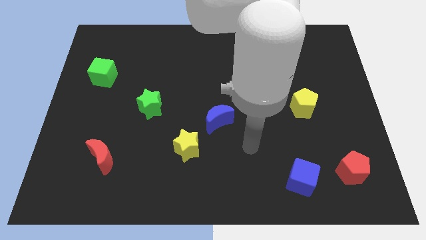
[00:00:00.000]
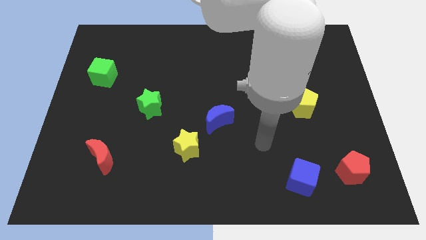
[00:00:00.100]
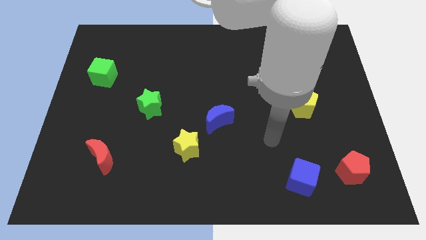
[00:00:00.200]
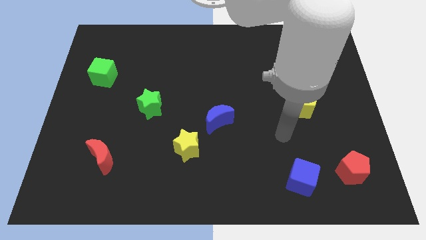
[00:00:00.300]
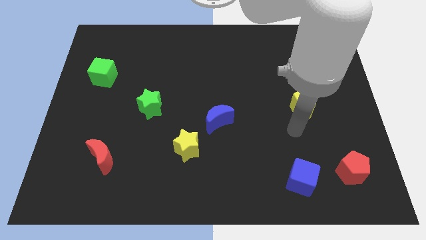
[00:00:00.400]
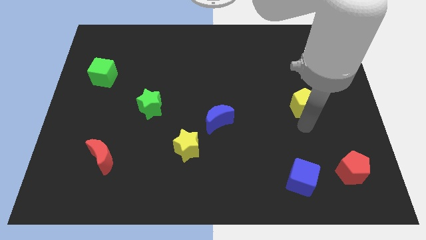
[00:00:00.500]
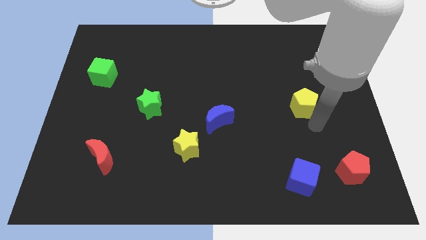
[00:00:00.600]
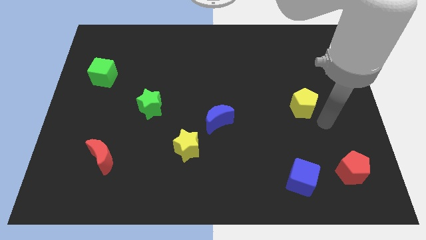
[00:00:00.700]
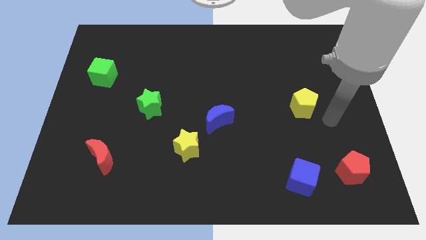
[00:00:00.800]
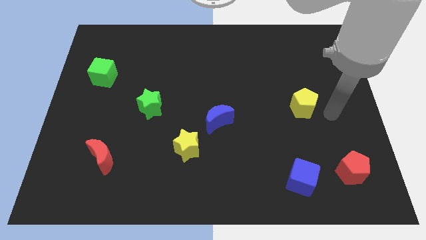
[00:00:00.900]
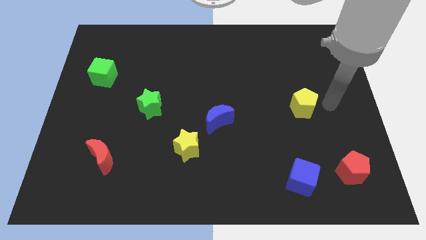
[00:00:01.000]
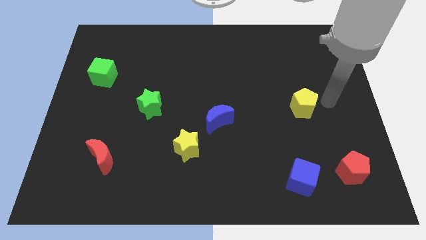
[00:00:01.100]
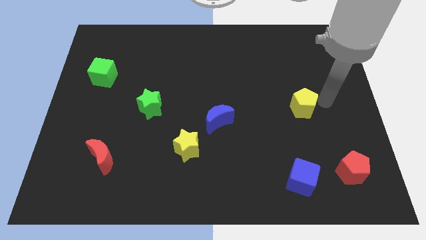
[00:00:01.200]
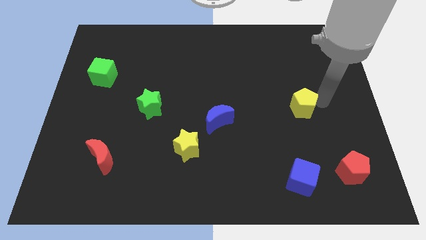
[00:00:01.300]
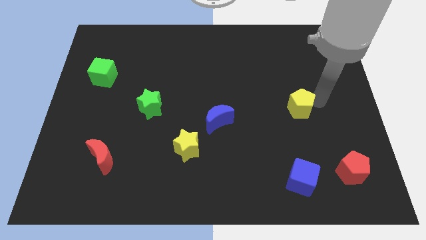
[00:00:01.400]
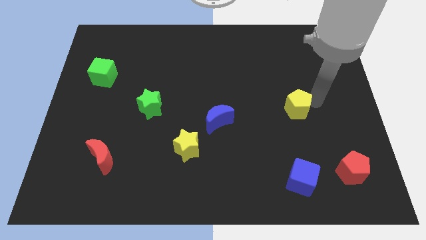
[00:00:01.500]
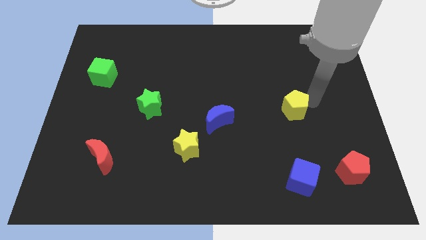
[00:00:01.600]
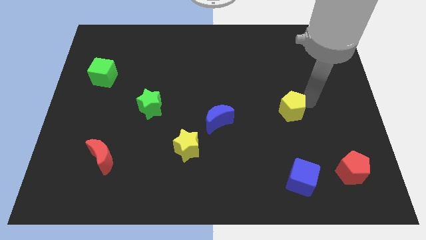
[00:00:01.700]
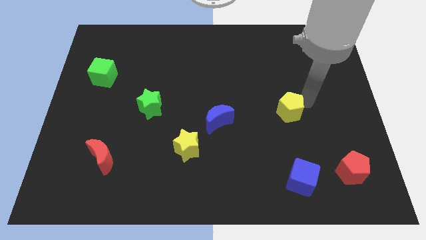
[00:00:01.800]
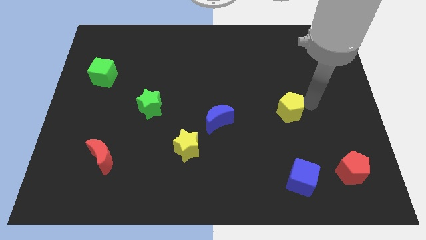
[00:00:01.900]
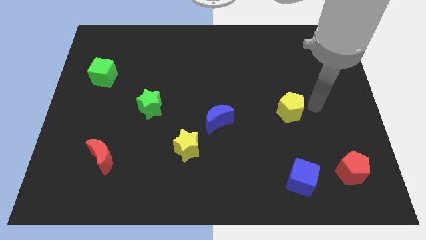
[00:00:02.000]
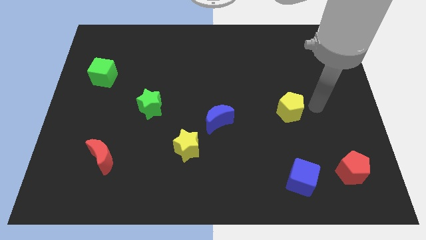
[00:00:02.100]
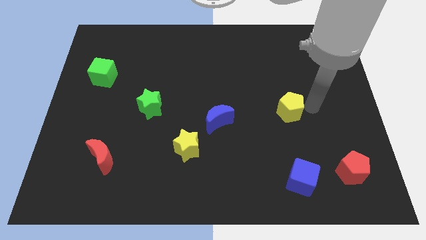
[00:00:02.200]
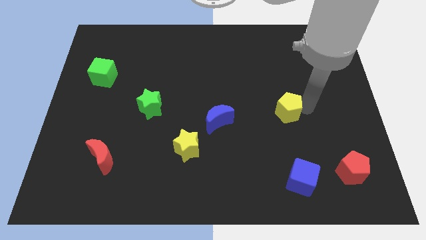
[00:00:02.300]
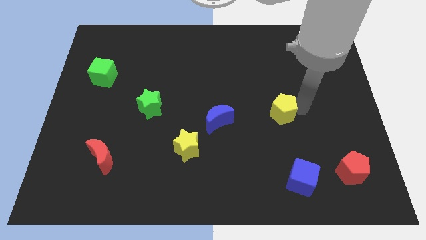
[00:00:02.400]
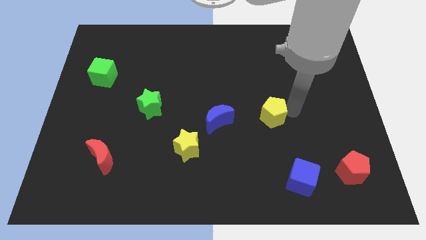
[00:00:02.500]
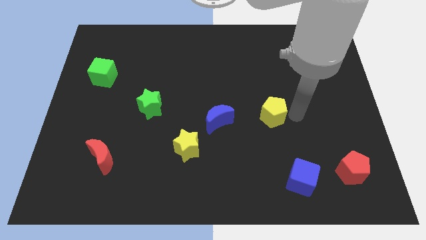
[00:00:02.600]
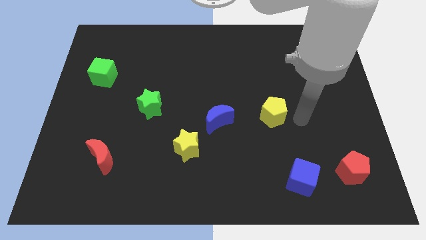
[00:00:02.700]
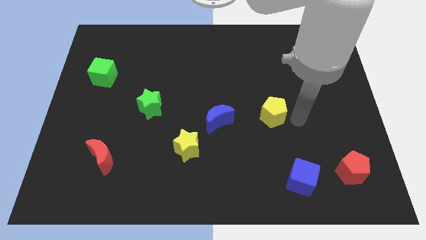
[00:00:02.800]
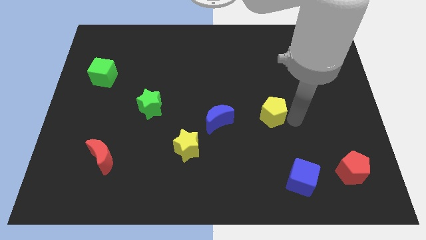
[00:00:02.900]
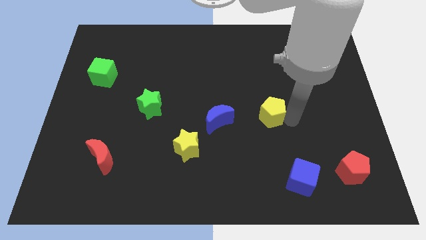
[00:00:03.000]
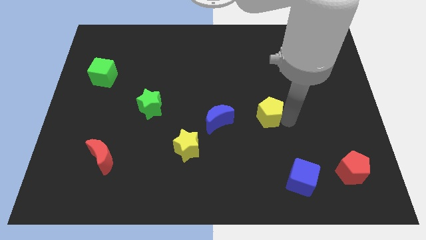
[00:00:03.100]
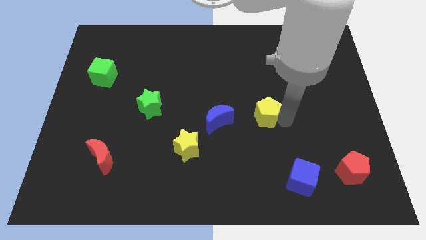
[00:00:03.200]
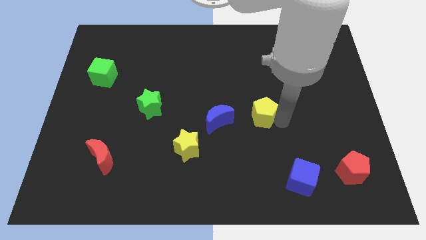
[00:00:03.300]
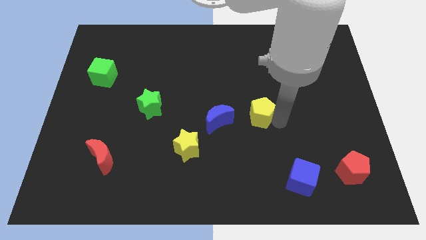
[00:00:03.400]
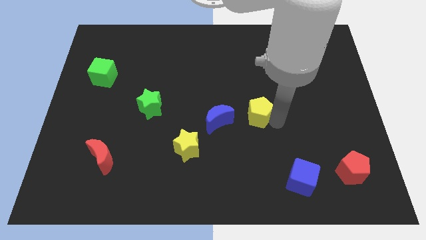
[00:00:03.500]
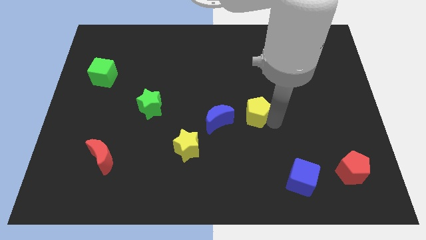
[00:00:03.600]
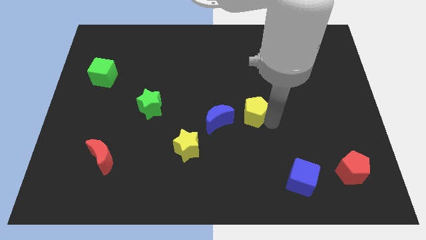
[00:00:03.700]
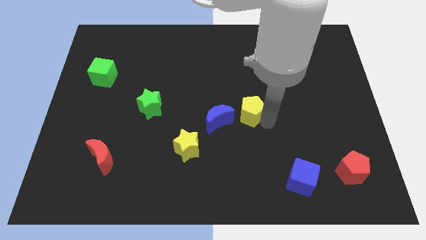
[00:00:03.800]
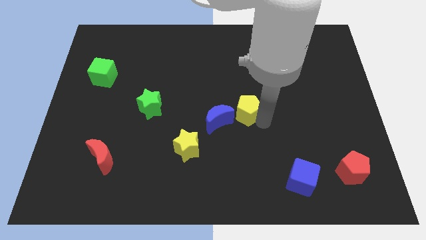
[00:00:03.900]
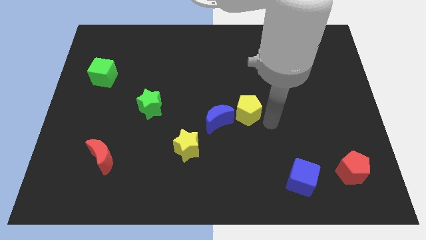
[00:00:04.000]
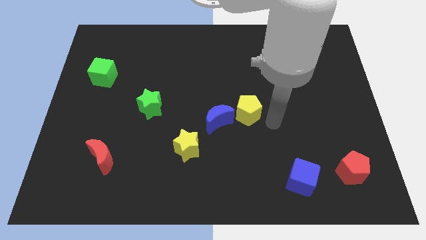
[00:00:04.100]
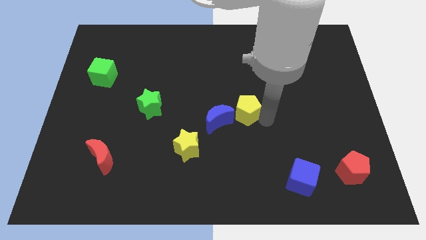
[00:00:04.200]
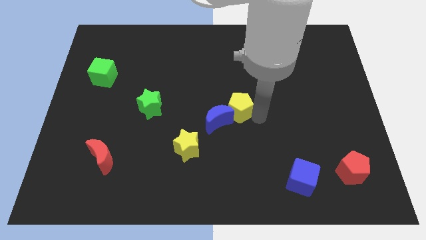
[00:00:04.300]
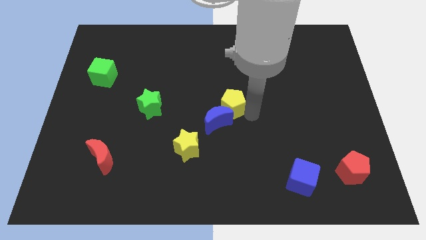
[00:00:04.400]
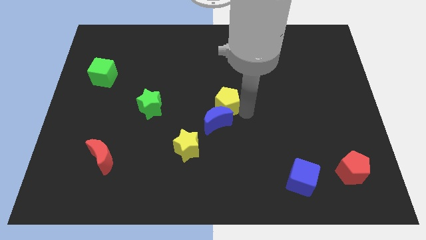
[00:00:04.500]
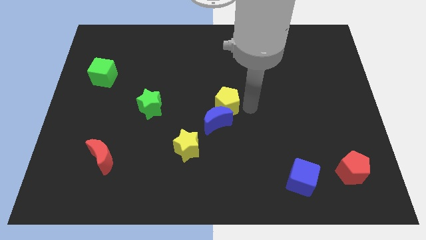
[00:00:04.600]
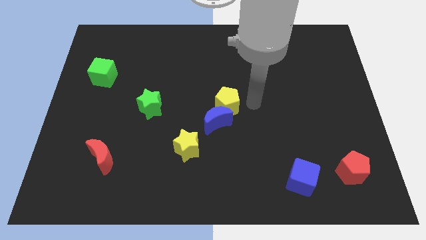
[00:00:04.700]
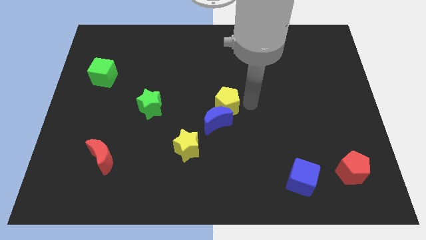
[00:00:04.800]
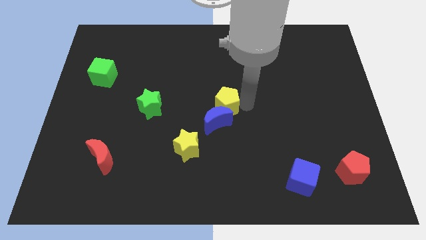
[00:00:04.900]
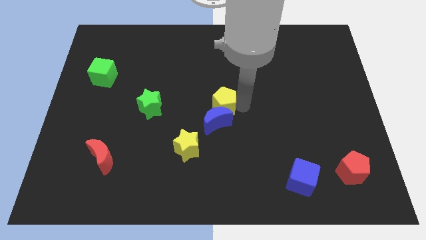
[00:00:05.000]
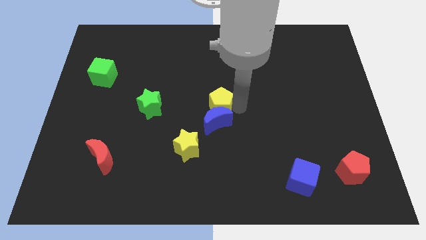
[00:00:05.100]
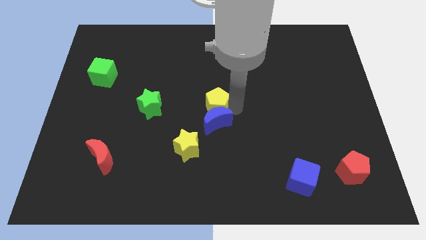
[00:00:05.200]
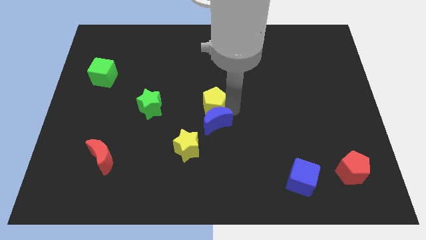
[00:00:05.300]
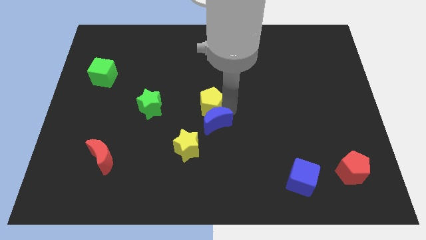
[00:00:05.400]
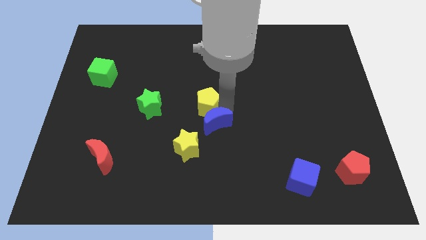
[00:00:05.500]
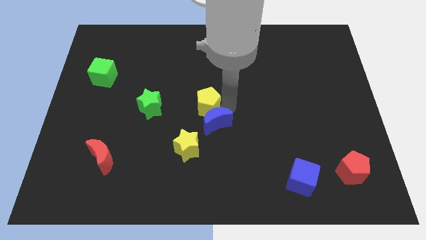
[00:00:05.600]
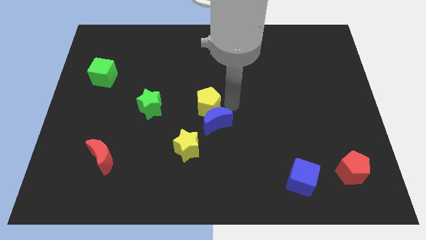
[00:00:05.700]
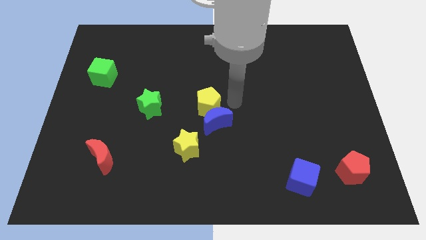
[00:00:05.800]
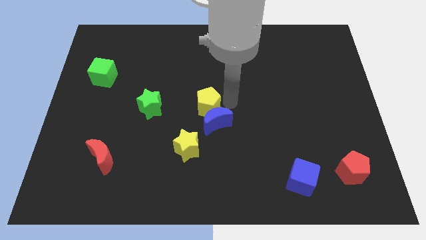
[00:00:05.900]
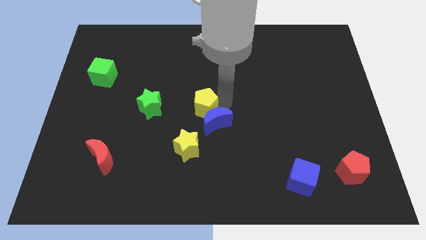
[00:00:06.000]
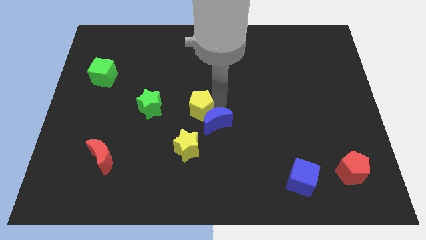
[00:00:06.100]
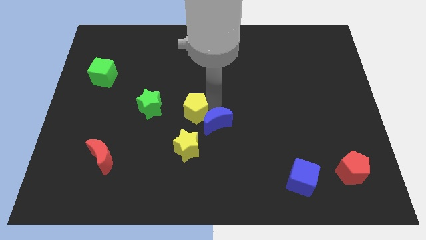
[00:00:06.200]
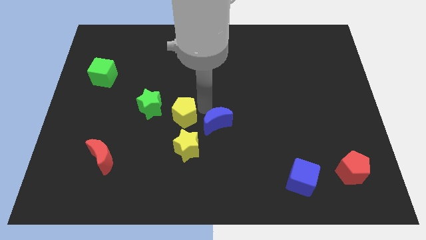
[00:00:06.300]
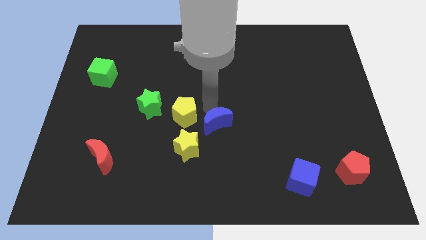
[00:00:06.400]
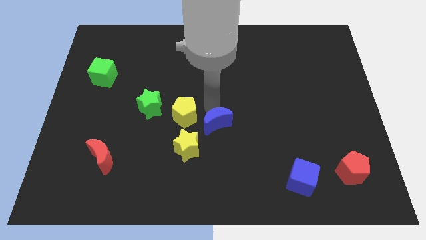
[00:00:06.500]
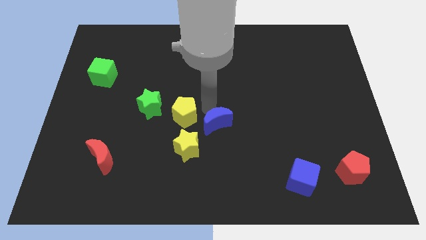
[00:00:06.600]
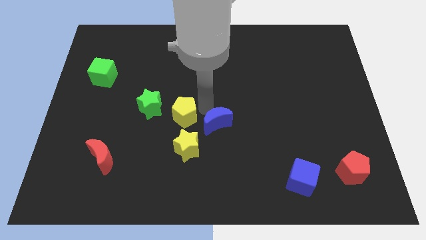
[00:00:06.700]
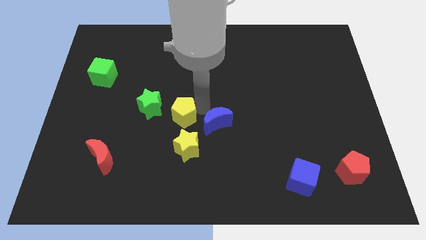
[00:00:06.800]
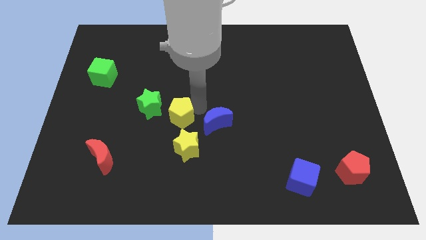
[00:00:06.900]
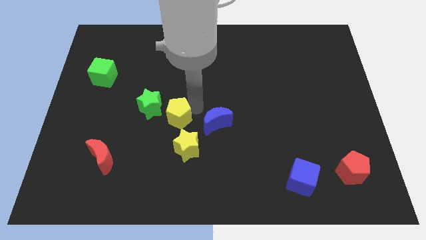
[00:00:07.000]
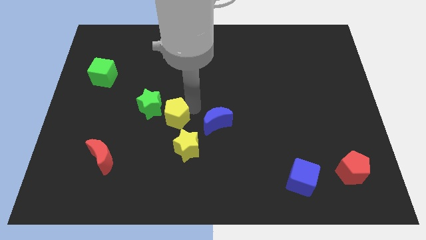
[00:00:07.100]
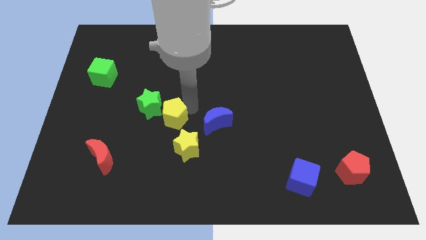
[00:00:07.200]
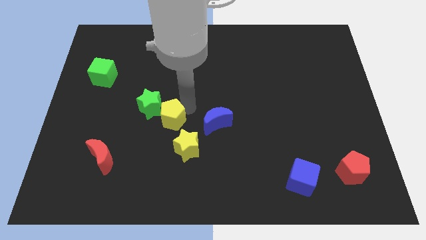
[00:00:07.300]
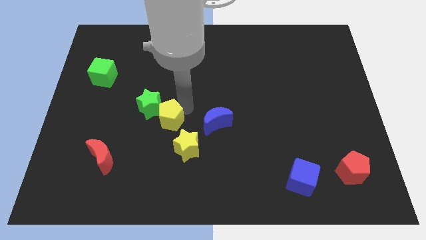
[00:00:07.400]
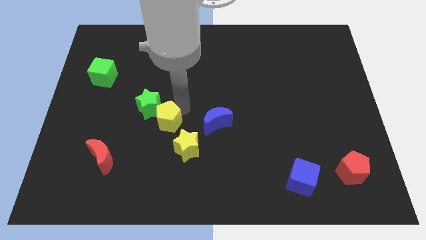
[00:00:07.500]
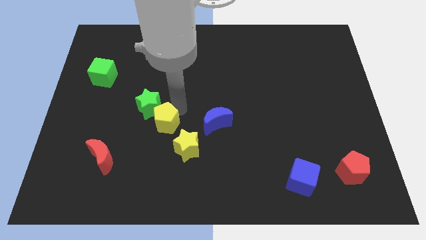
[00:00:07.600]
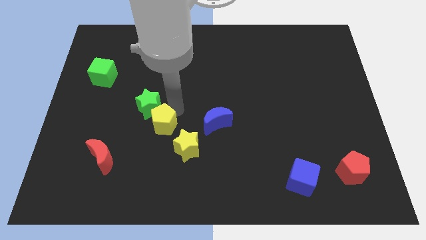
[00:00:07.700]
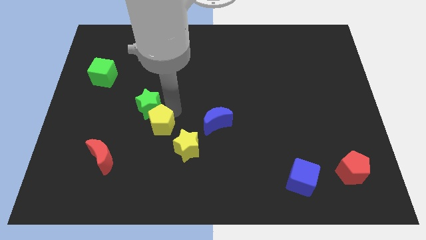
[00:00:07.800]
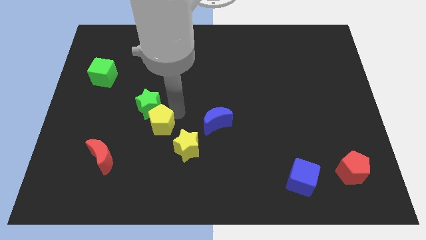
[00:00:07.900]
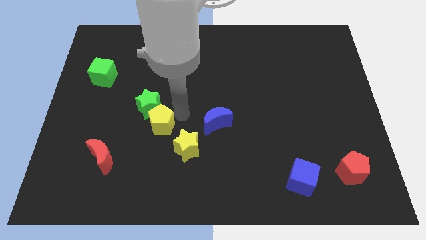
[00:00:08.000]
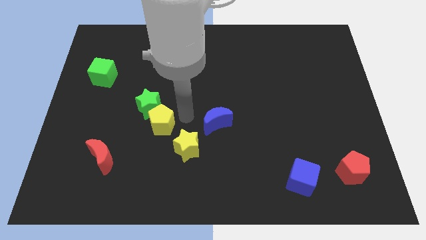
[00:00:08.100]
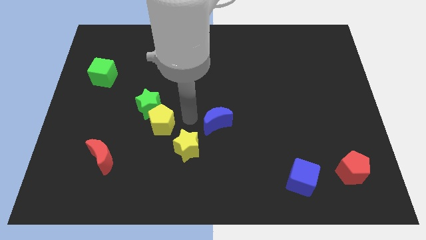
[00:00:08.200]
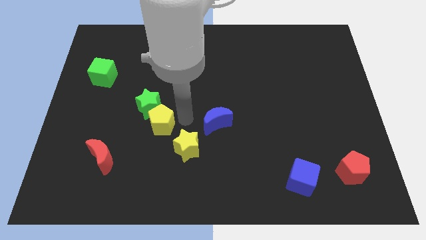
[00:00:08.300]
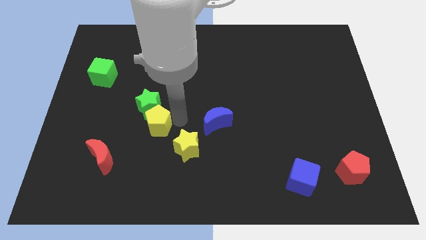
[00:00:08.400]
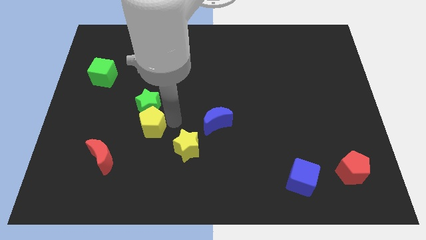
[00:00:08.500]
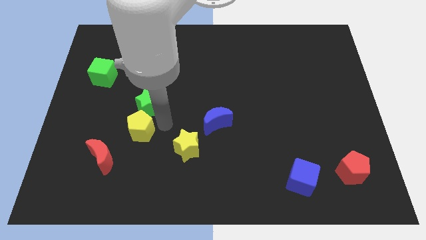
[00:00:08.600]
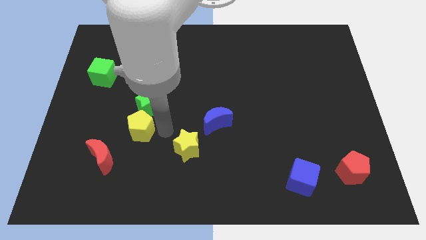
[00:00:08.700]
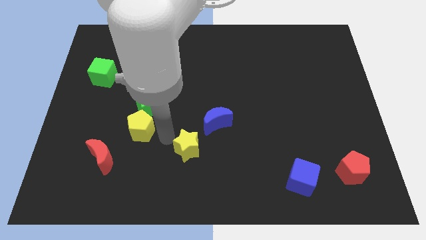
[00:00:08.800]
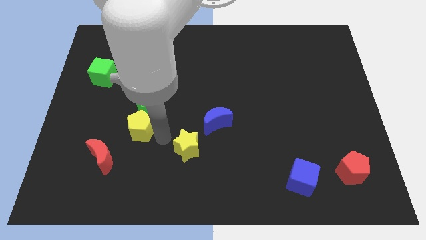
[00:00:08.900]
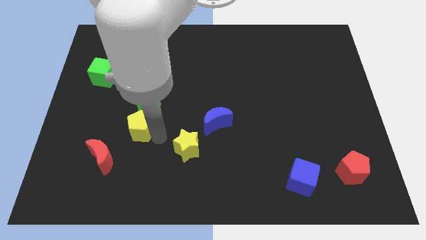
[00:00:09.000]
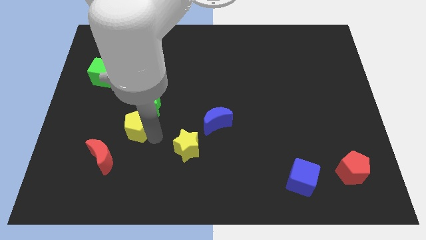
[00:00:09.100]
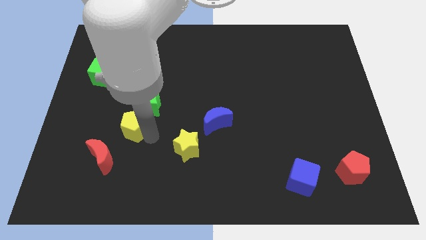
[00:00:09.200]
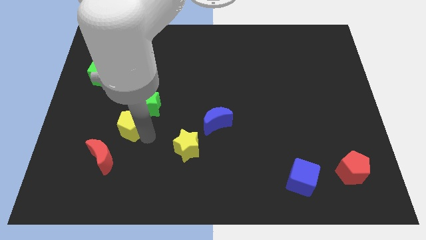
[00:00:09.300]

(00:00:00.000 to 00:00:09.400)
move the yellow pentagon to the top side of the red moon
